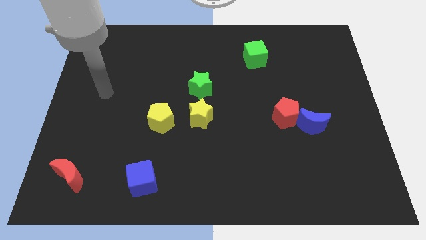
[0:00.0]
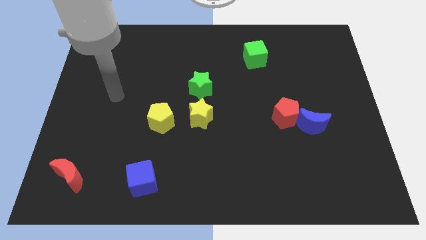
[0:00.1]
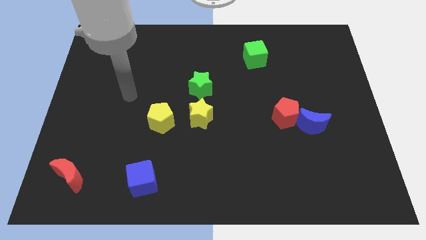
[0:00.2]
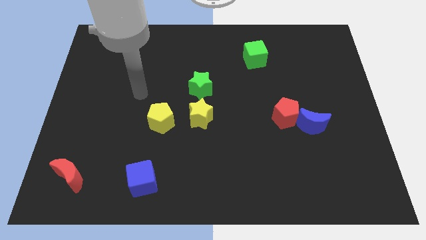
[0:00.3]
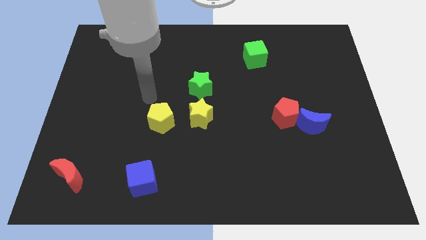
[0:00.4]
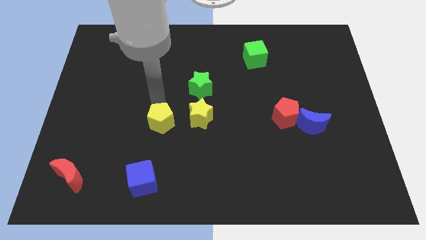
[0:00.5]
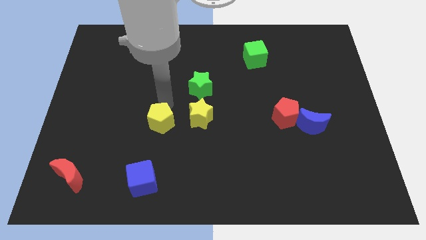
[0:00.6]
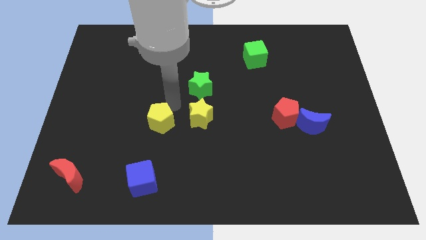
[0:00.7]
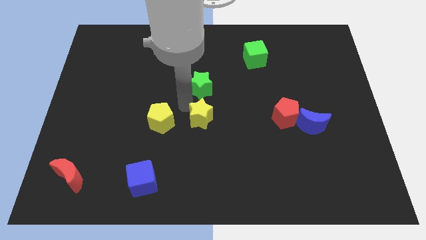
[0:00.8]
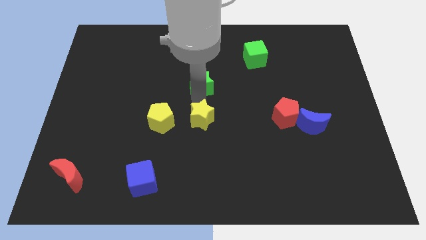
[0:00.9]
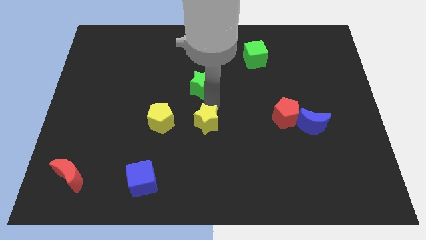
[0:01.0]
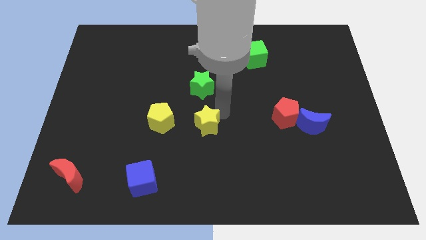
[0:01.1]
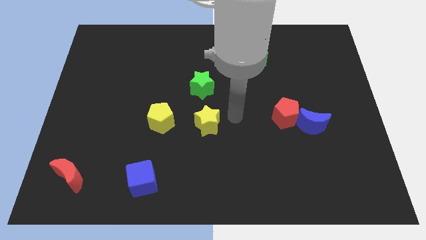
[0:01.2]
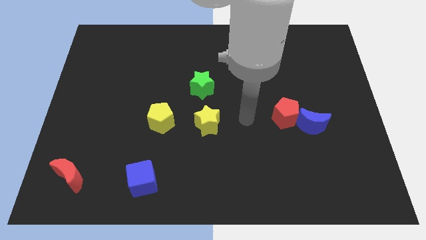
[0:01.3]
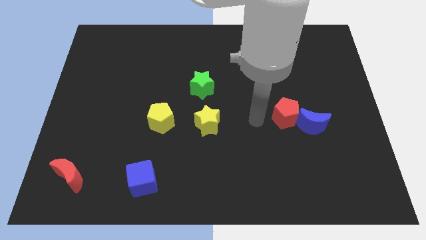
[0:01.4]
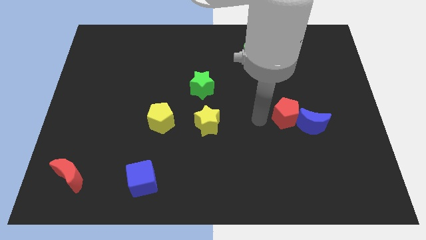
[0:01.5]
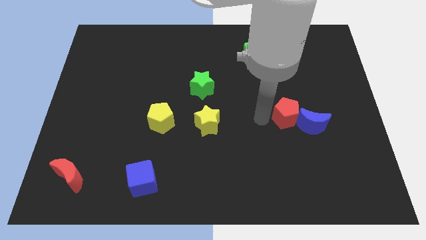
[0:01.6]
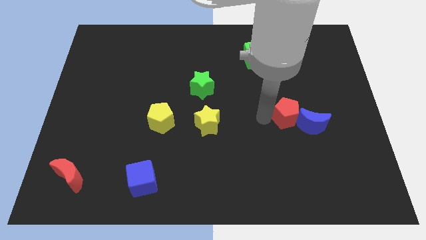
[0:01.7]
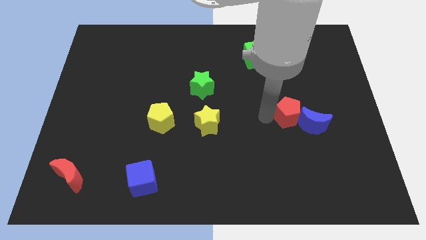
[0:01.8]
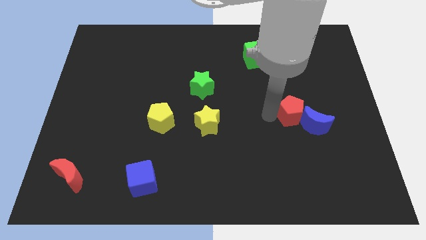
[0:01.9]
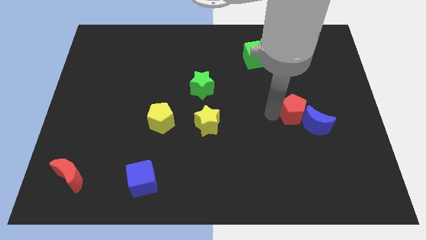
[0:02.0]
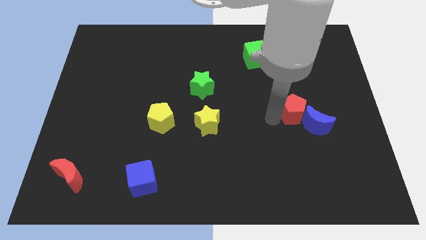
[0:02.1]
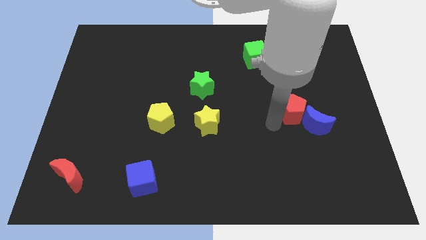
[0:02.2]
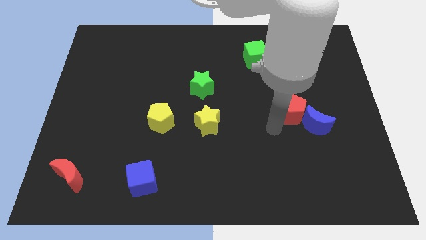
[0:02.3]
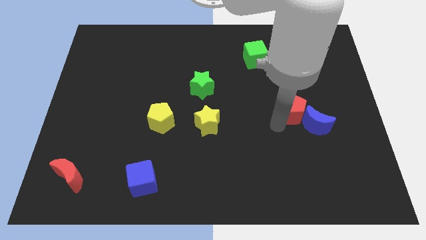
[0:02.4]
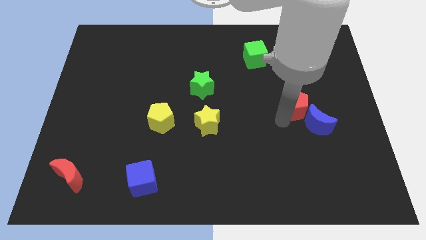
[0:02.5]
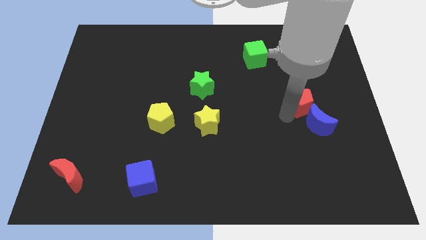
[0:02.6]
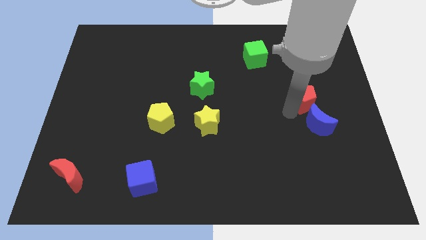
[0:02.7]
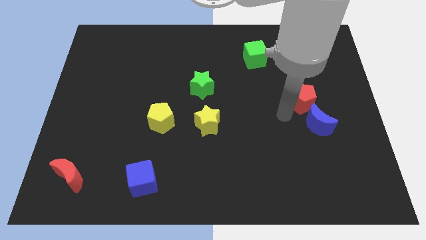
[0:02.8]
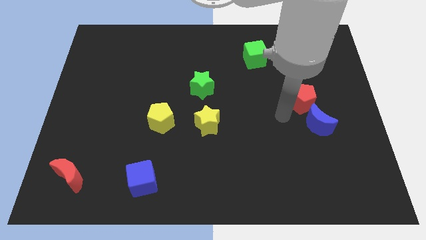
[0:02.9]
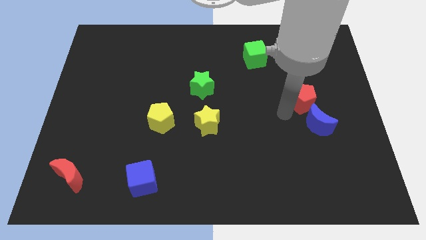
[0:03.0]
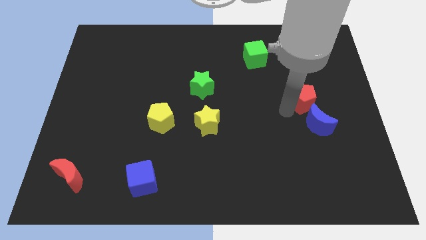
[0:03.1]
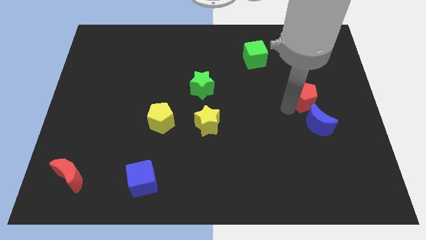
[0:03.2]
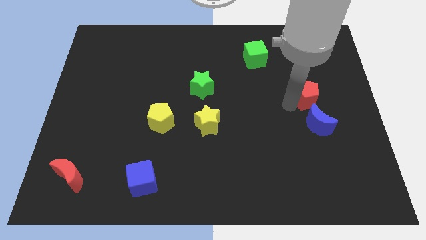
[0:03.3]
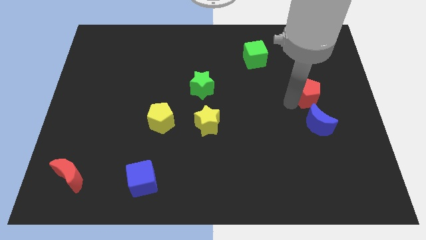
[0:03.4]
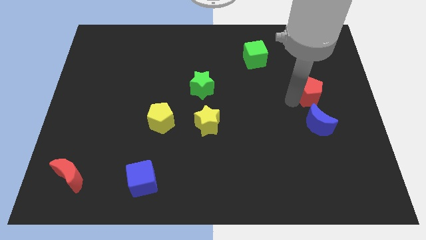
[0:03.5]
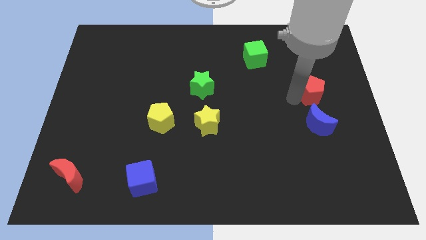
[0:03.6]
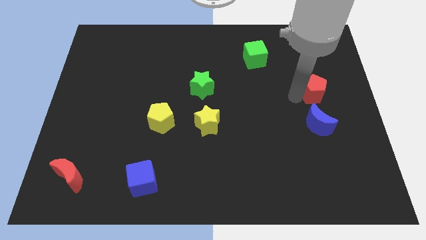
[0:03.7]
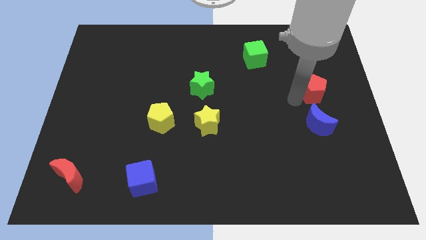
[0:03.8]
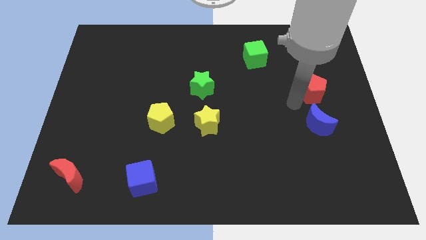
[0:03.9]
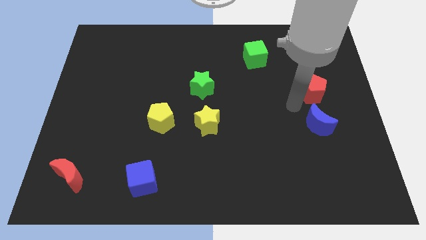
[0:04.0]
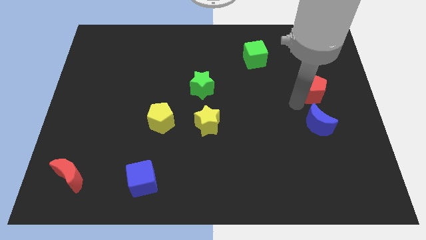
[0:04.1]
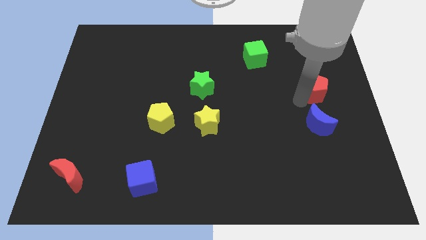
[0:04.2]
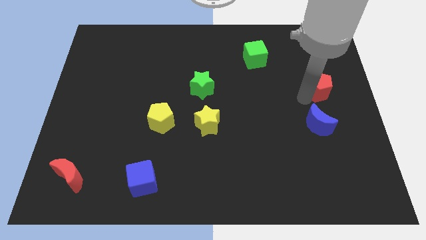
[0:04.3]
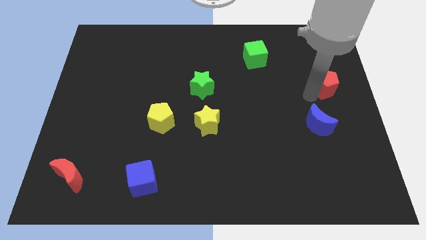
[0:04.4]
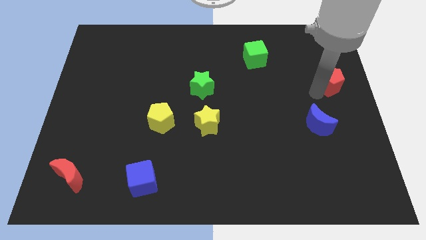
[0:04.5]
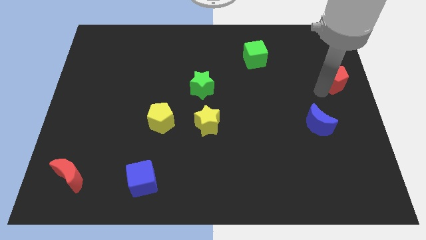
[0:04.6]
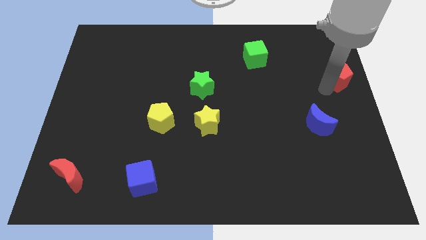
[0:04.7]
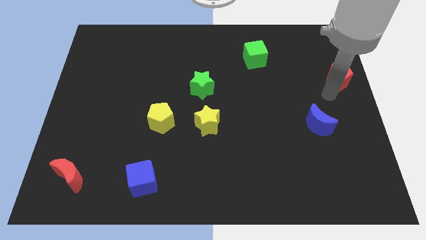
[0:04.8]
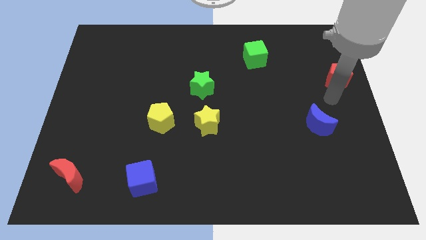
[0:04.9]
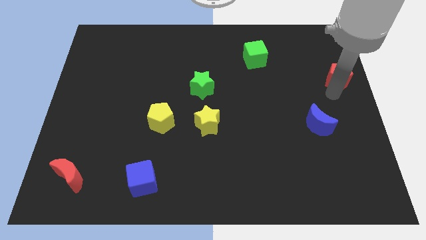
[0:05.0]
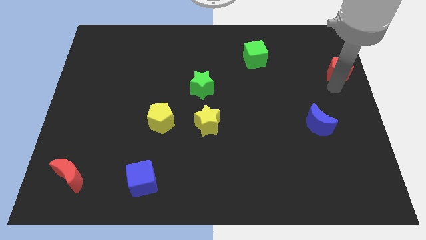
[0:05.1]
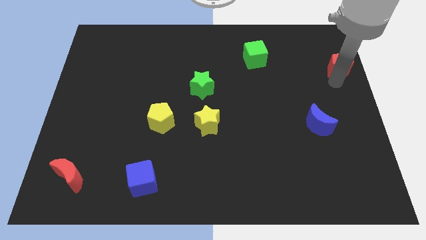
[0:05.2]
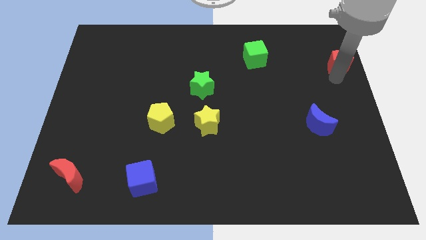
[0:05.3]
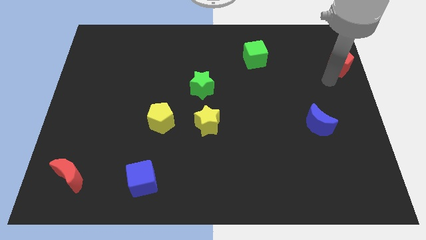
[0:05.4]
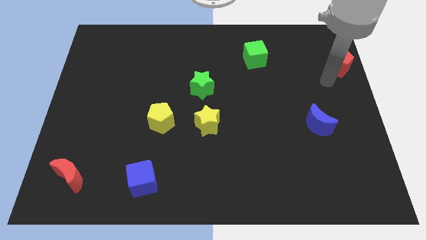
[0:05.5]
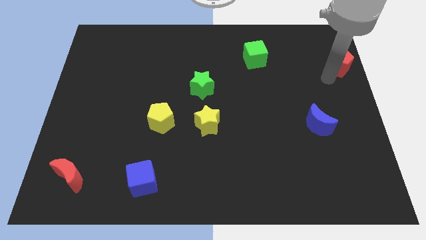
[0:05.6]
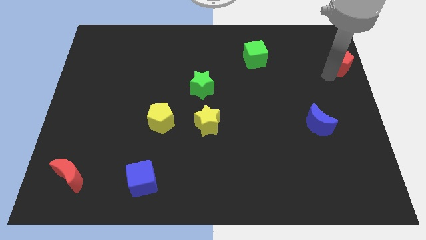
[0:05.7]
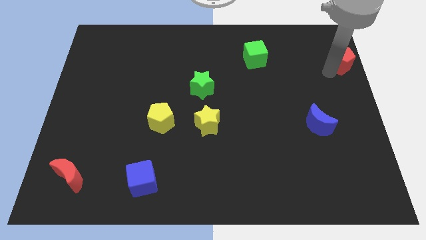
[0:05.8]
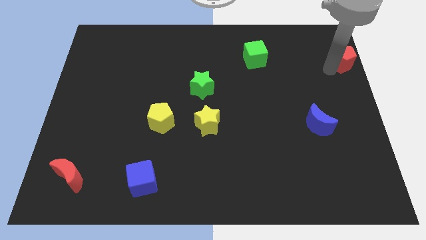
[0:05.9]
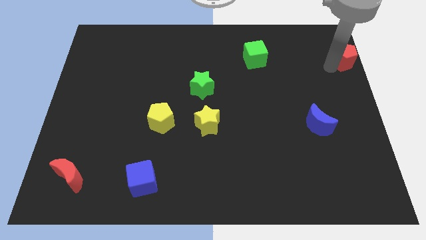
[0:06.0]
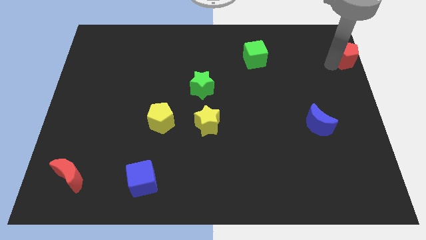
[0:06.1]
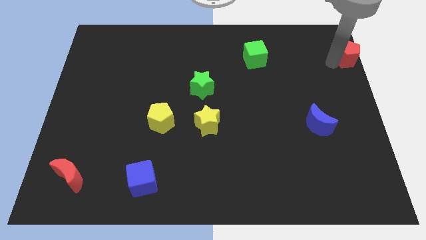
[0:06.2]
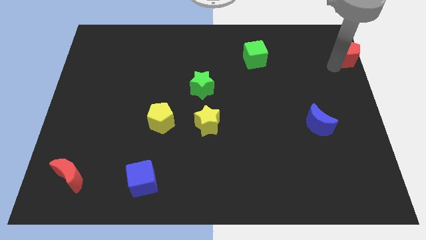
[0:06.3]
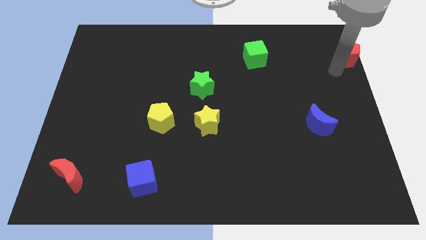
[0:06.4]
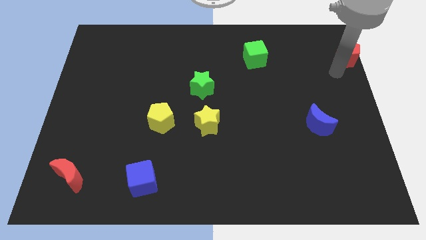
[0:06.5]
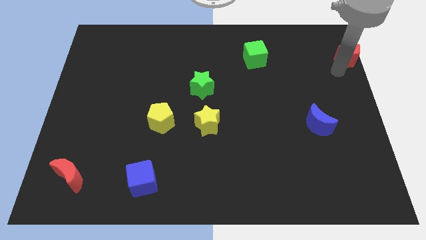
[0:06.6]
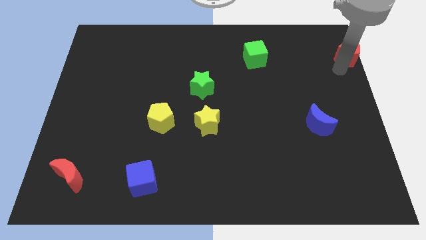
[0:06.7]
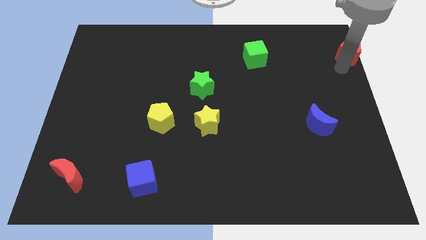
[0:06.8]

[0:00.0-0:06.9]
push the red pentagon to the top right of the board

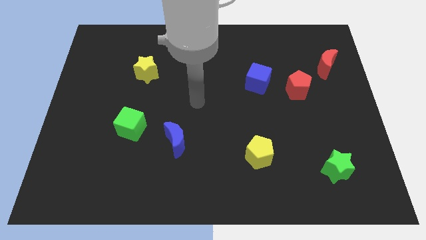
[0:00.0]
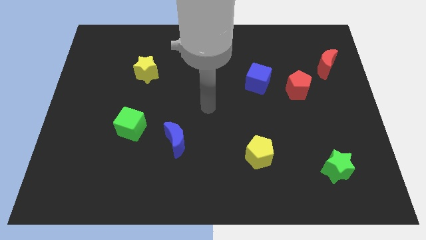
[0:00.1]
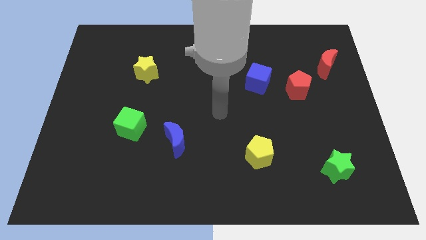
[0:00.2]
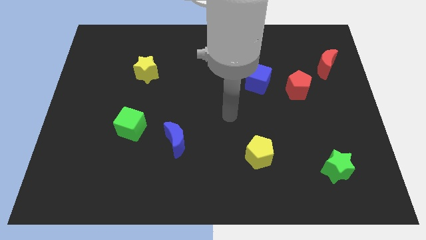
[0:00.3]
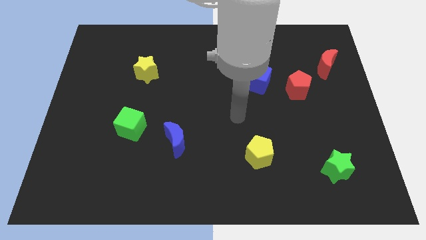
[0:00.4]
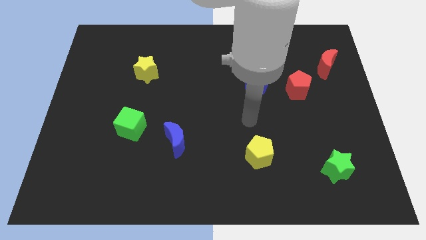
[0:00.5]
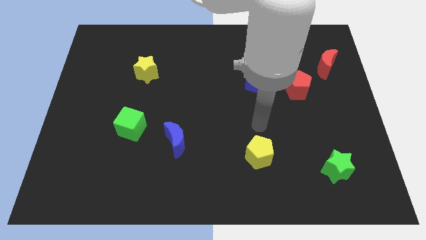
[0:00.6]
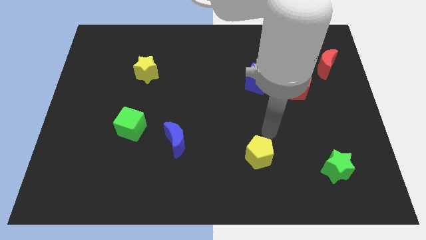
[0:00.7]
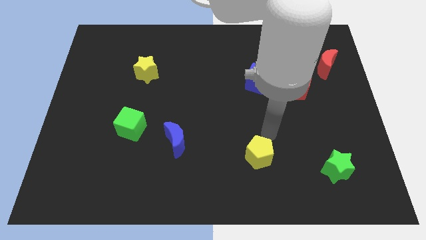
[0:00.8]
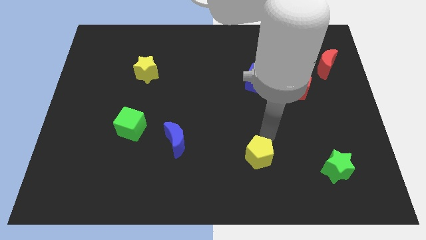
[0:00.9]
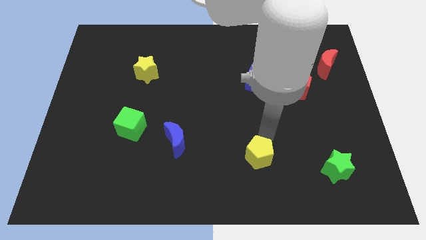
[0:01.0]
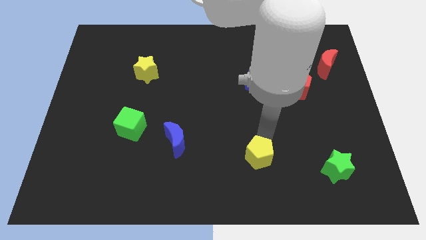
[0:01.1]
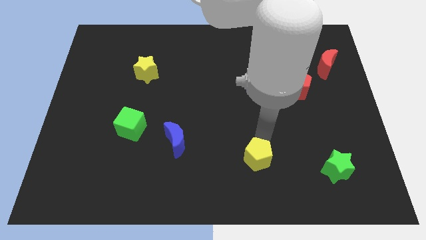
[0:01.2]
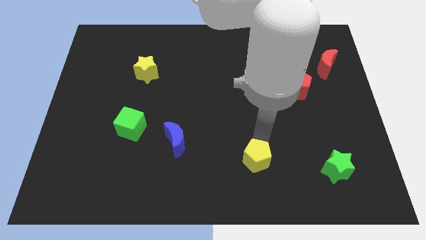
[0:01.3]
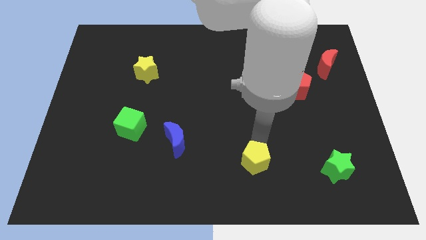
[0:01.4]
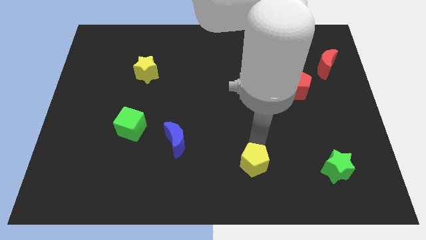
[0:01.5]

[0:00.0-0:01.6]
push the yellow pentagon to the bottom side
